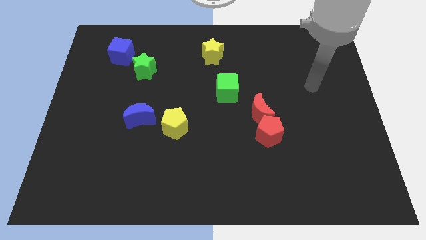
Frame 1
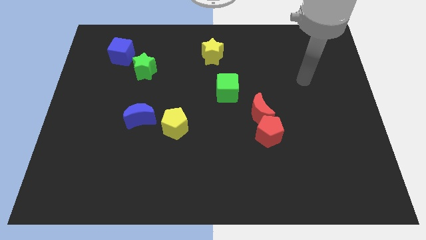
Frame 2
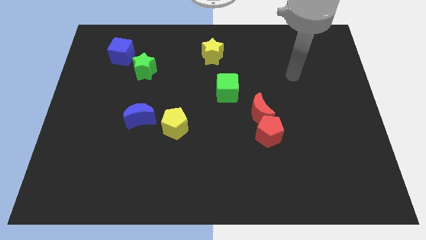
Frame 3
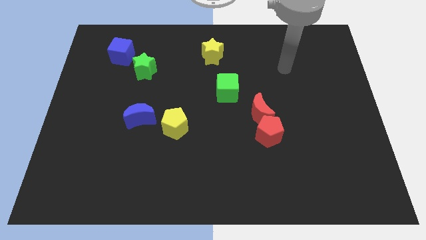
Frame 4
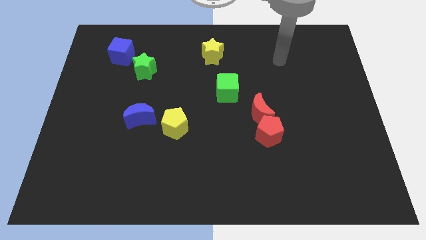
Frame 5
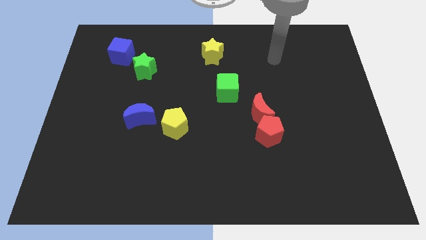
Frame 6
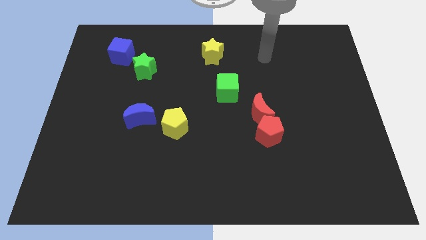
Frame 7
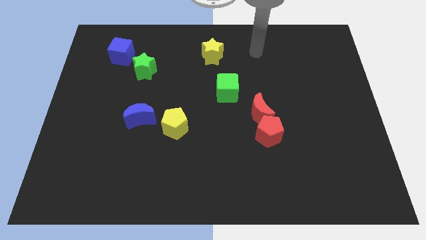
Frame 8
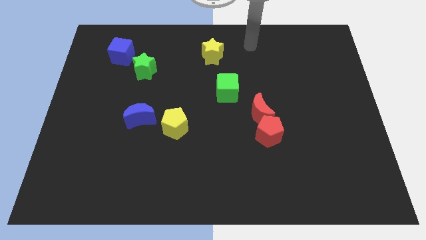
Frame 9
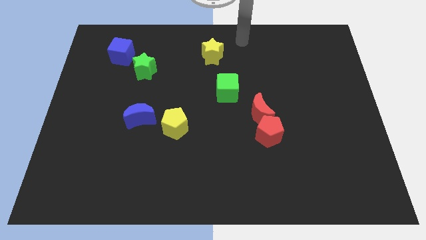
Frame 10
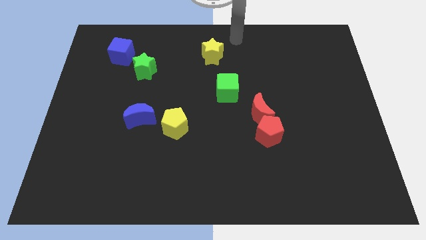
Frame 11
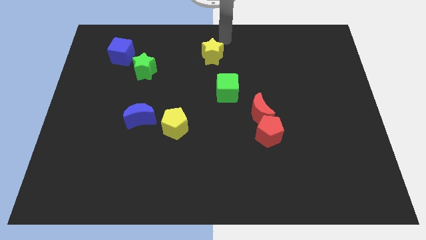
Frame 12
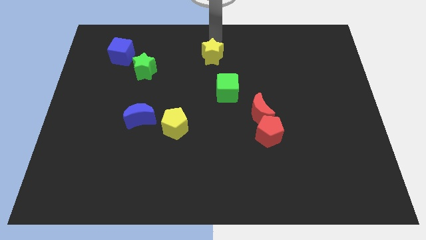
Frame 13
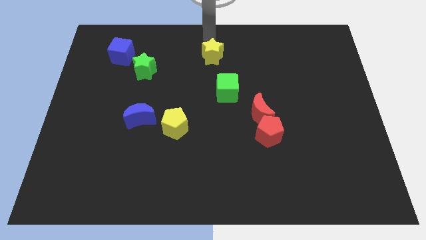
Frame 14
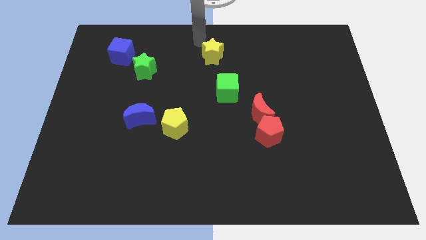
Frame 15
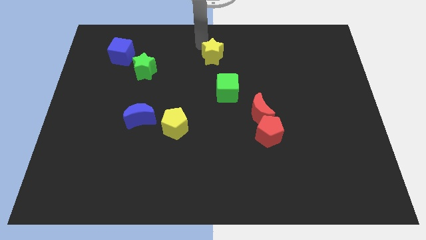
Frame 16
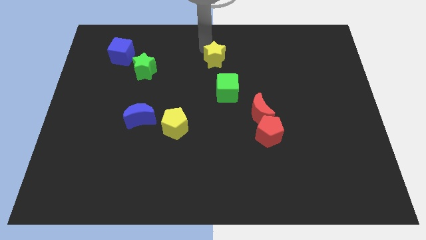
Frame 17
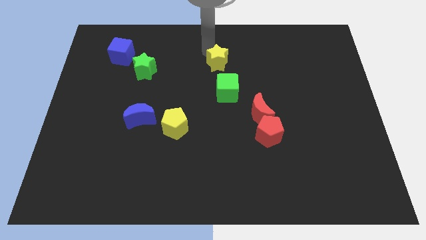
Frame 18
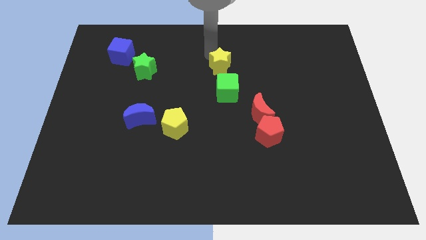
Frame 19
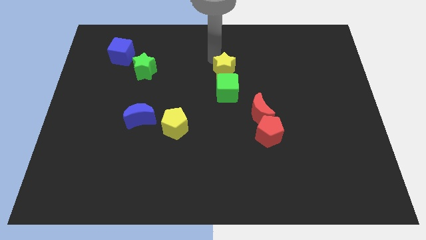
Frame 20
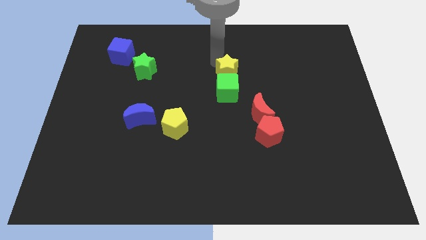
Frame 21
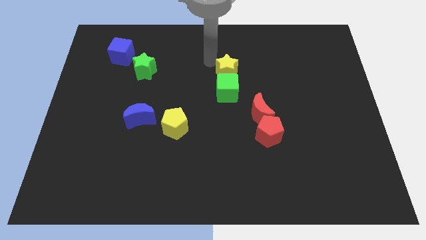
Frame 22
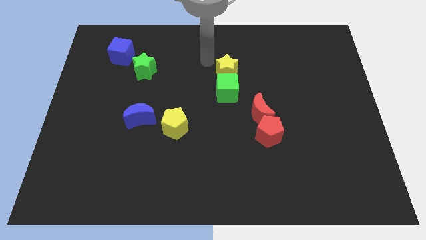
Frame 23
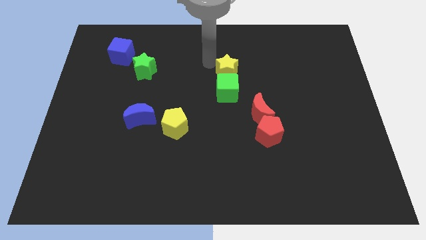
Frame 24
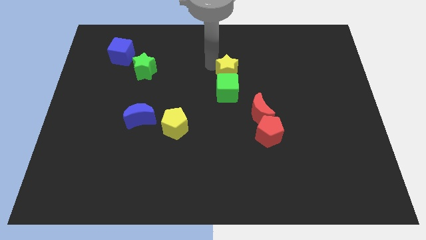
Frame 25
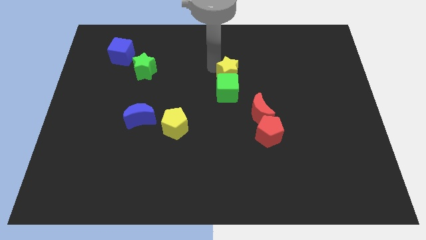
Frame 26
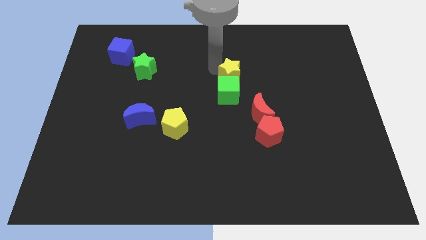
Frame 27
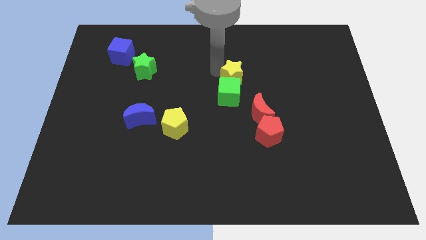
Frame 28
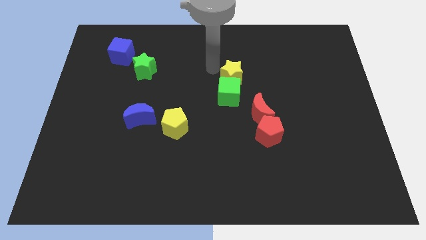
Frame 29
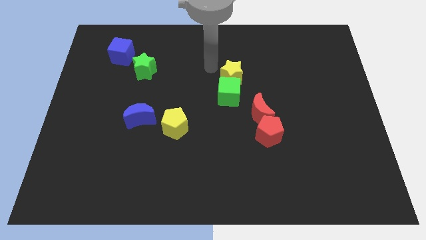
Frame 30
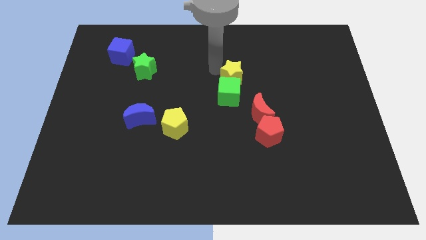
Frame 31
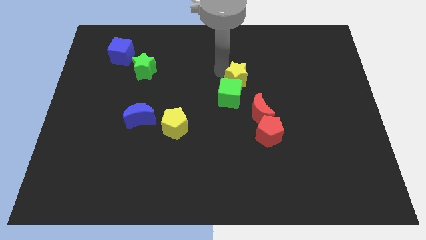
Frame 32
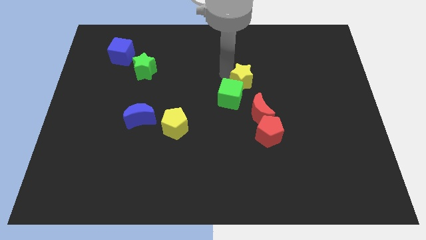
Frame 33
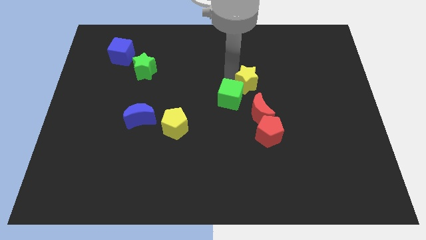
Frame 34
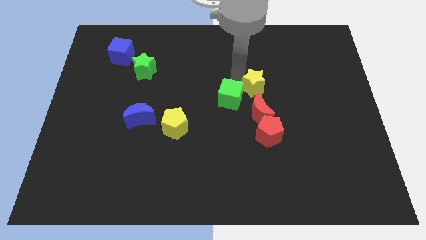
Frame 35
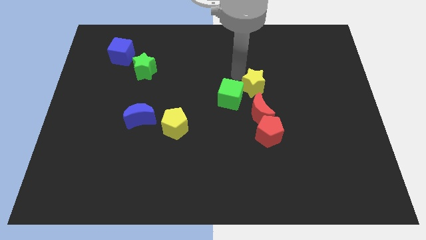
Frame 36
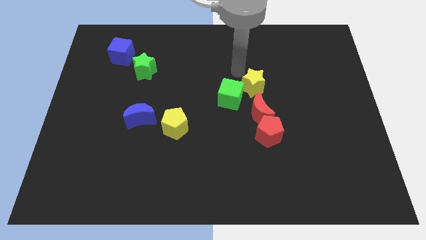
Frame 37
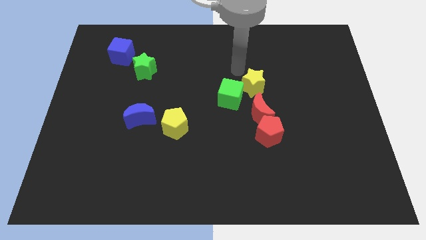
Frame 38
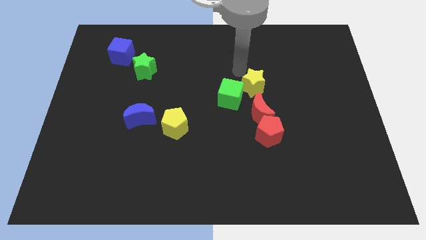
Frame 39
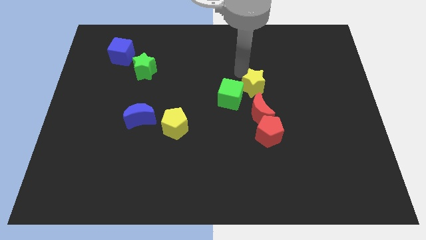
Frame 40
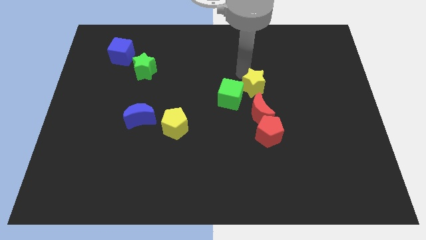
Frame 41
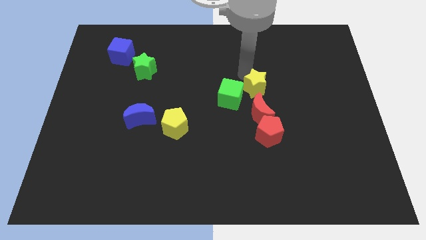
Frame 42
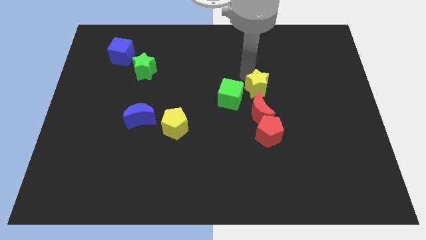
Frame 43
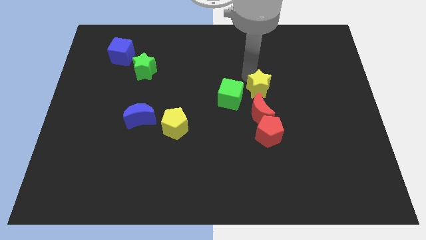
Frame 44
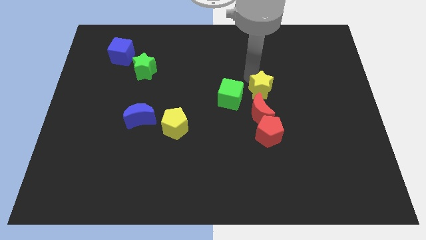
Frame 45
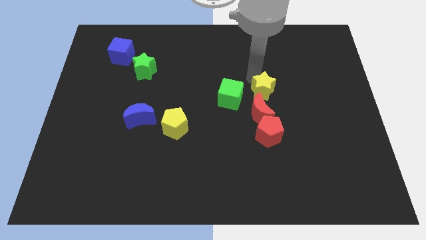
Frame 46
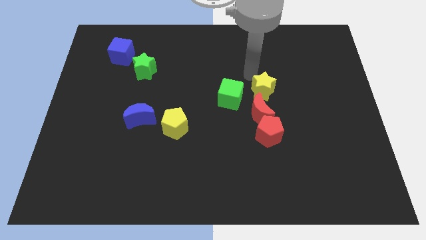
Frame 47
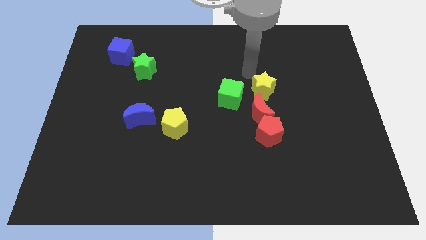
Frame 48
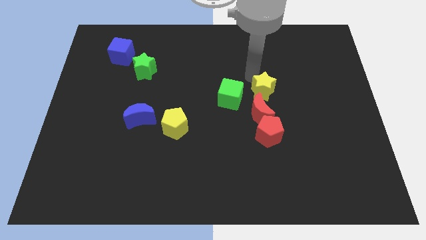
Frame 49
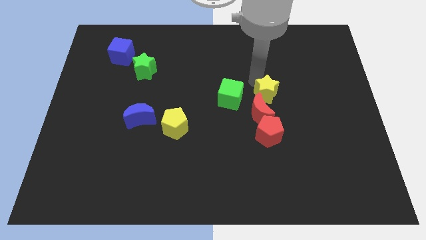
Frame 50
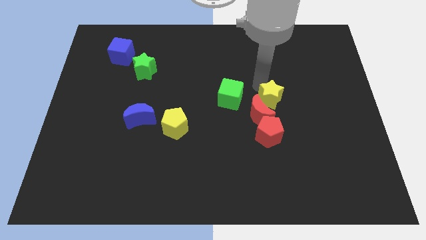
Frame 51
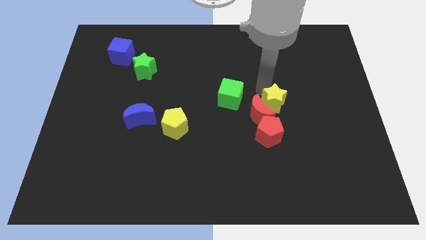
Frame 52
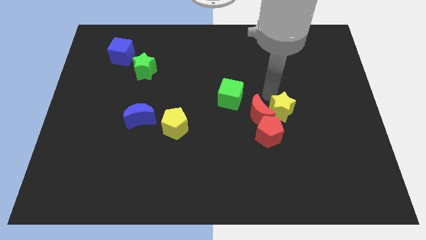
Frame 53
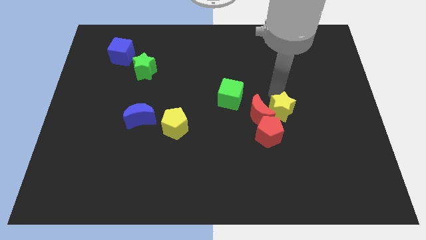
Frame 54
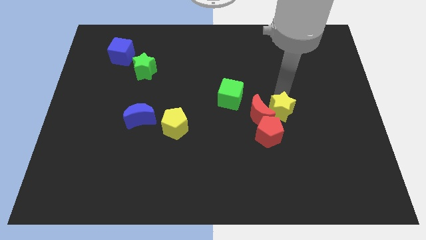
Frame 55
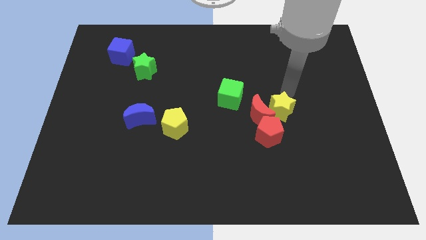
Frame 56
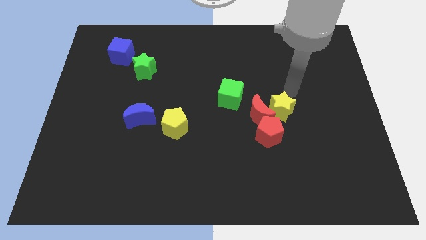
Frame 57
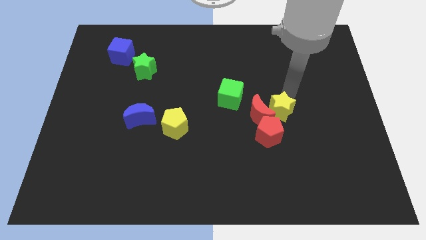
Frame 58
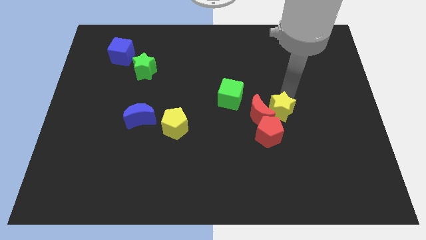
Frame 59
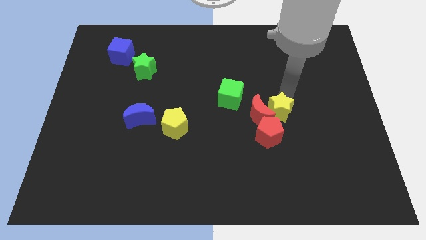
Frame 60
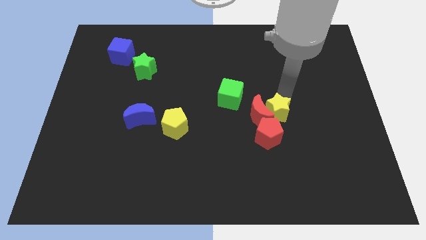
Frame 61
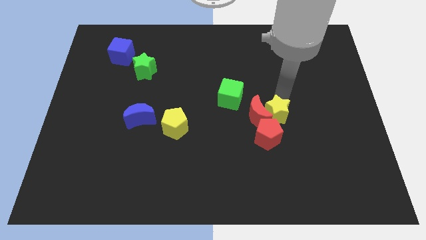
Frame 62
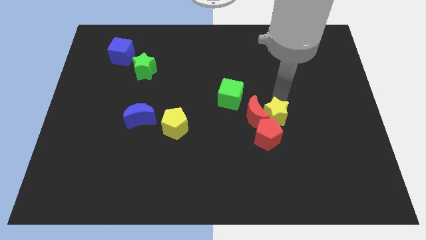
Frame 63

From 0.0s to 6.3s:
slide the yellow star to the red pentagon
